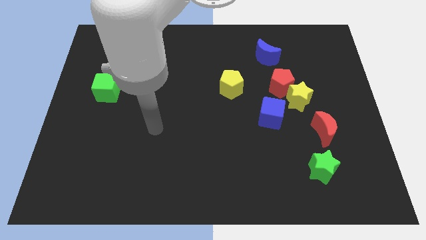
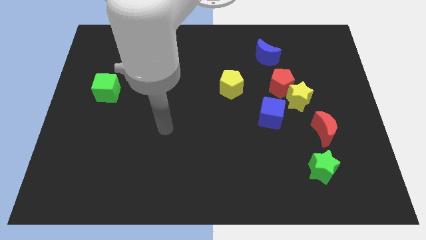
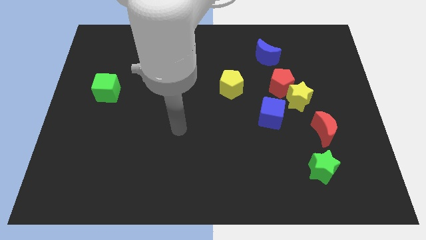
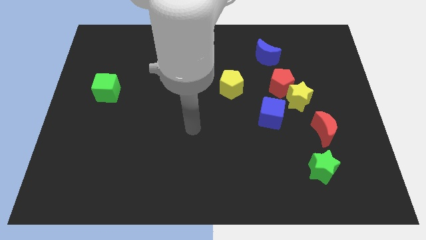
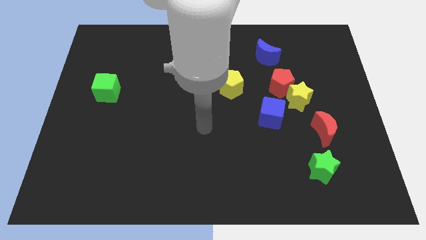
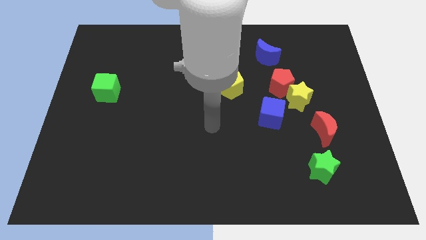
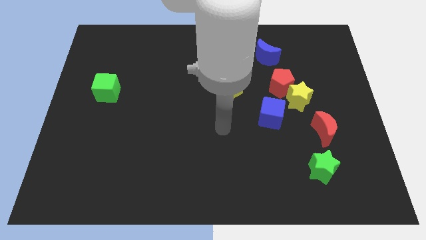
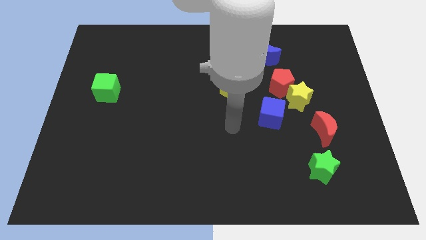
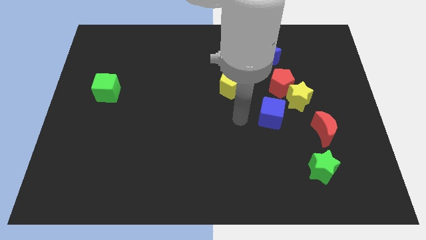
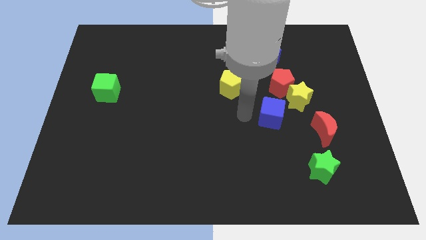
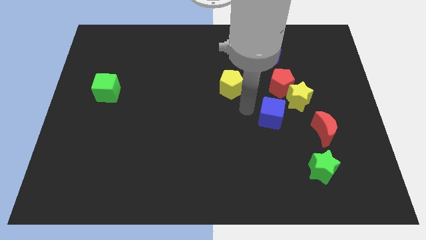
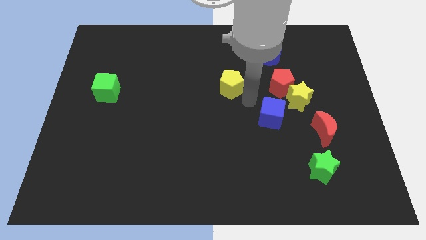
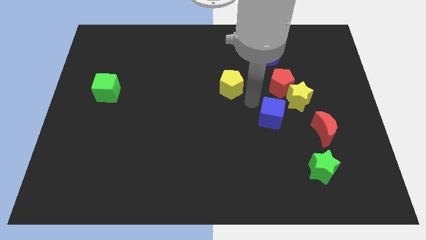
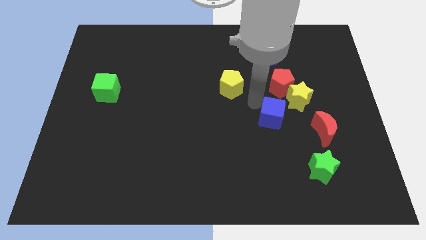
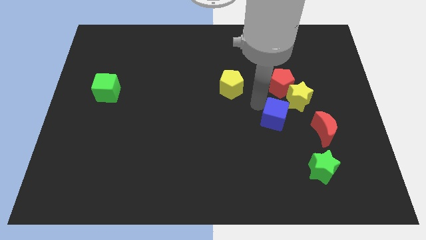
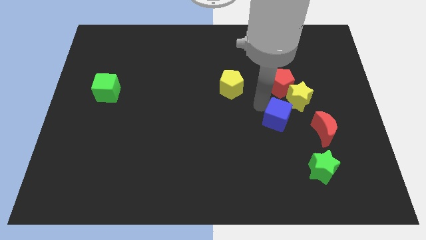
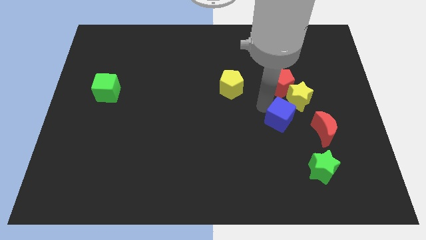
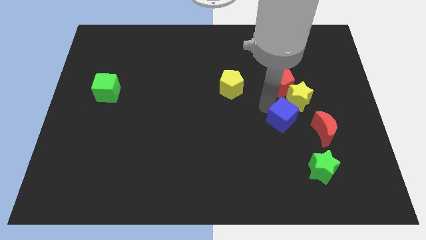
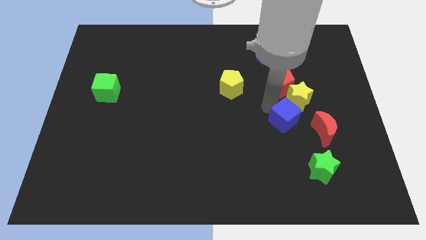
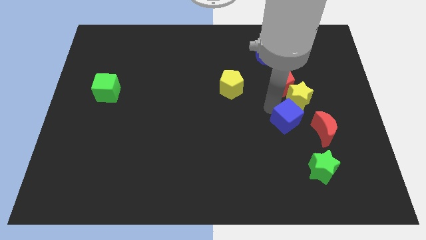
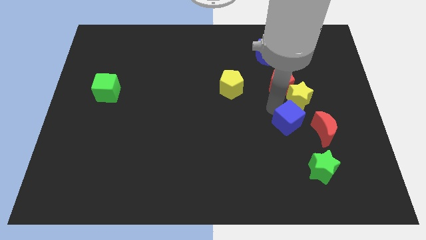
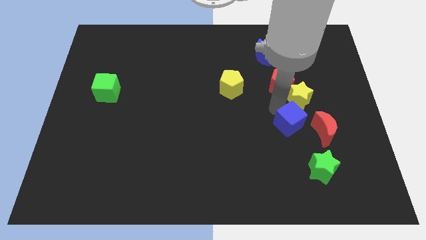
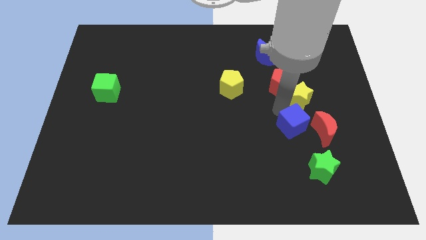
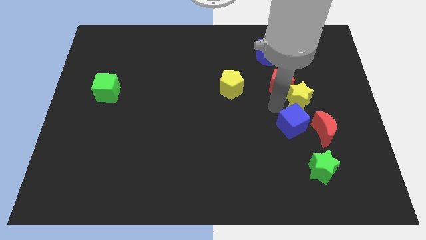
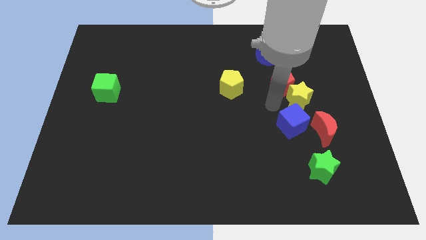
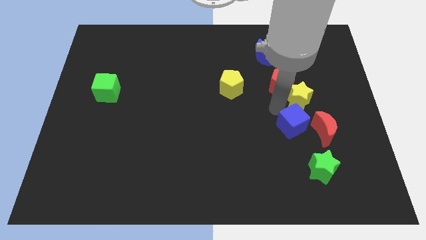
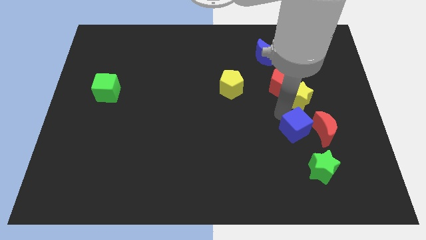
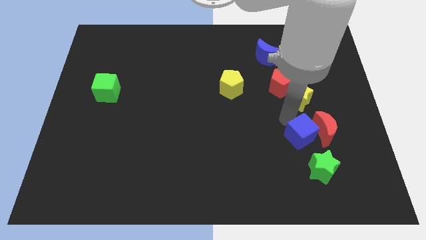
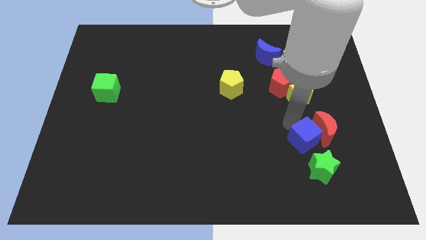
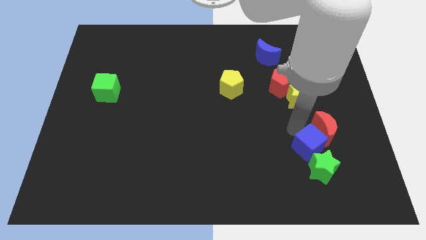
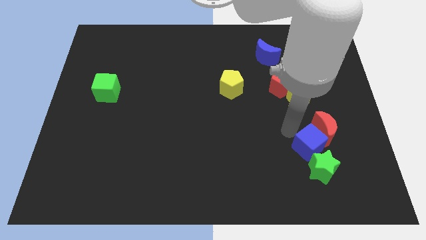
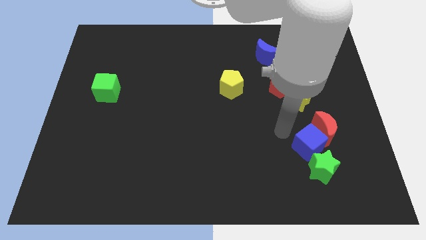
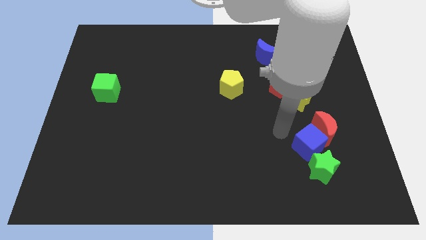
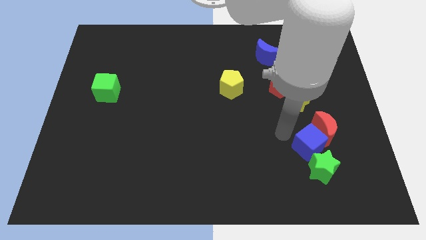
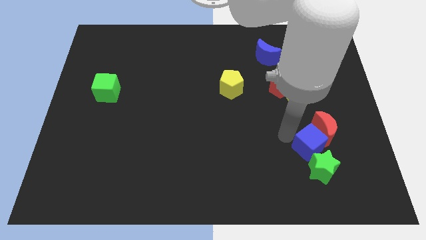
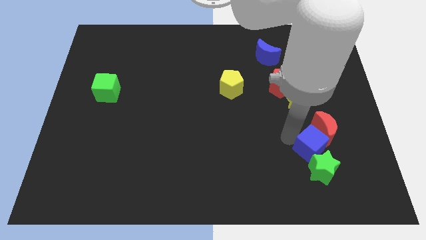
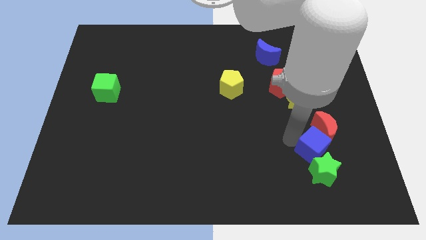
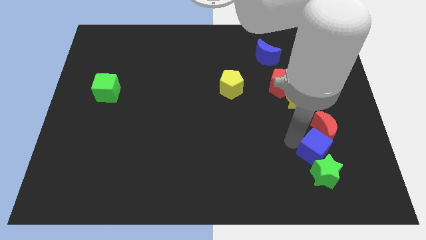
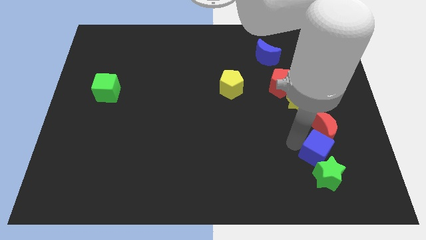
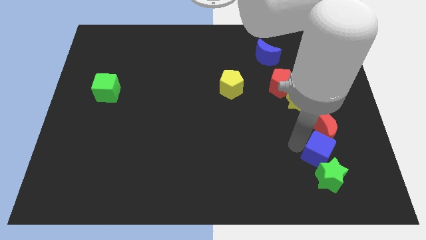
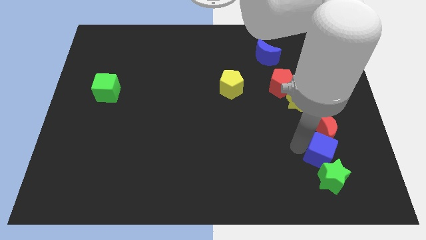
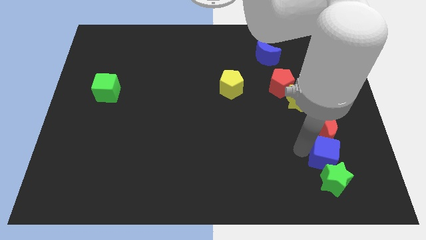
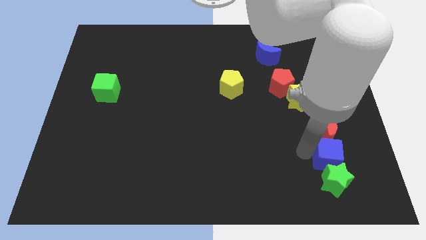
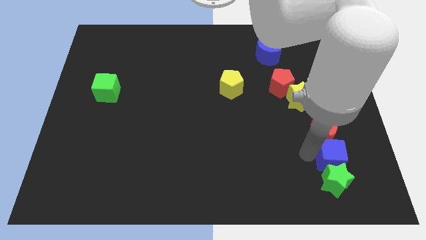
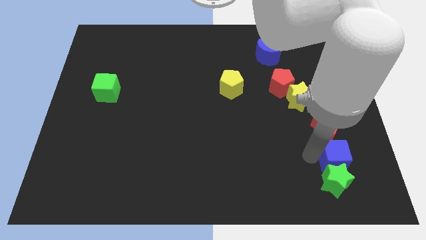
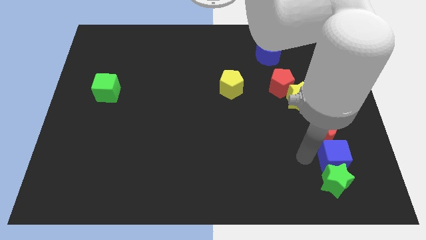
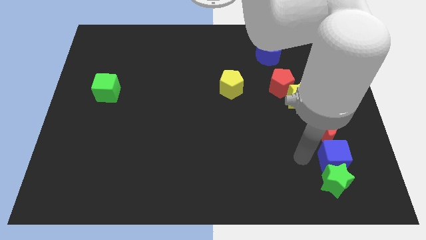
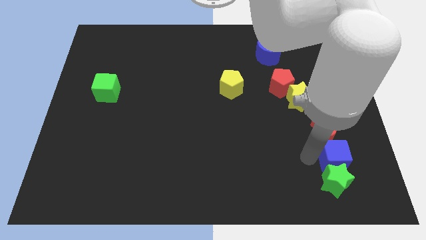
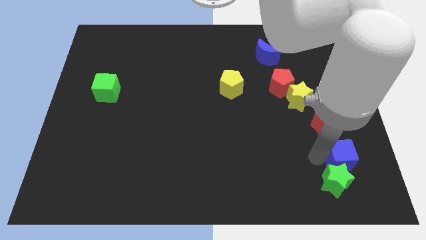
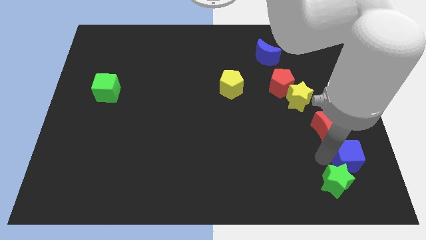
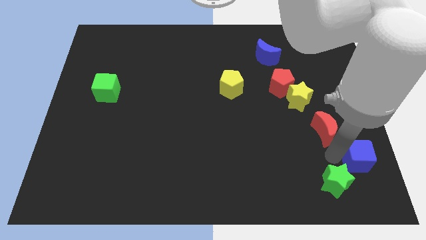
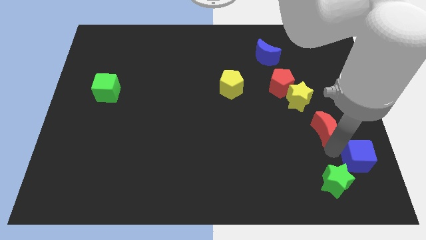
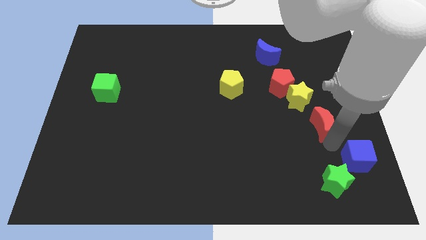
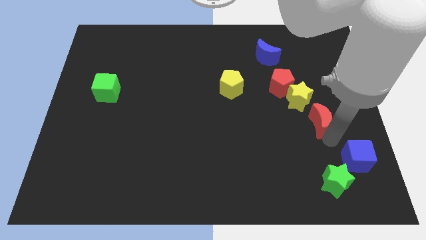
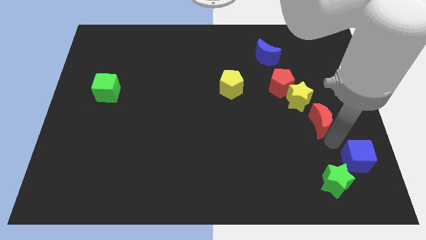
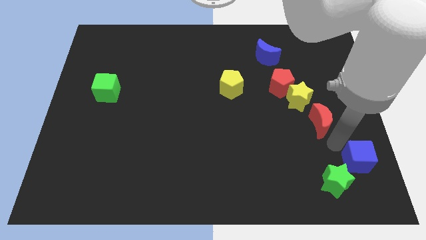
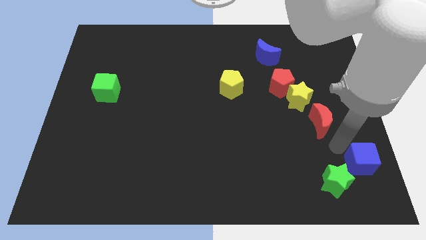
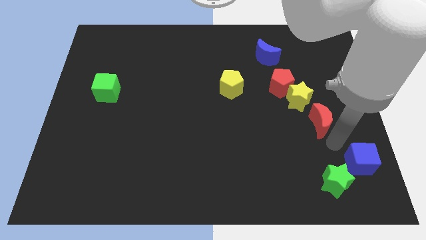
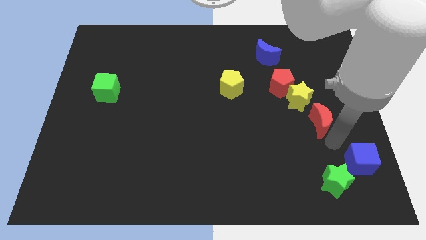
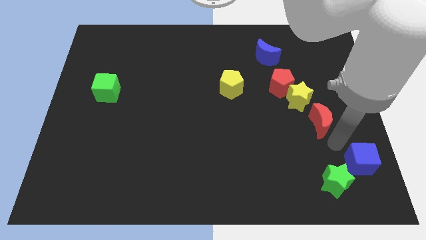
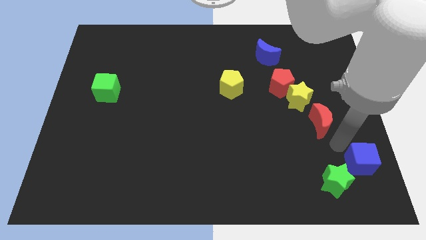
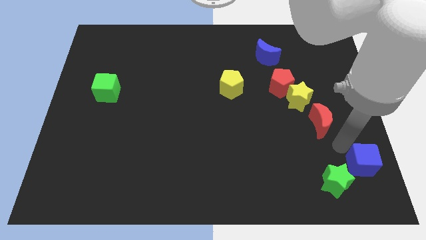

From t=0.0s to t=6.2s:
slide the blue cube to the bottom right corner

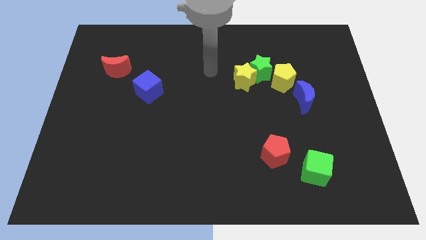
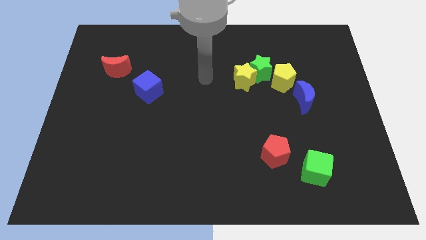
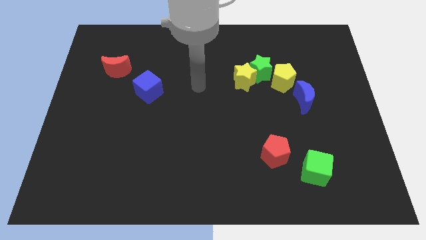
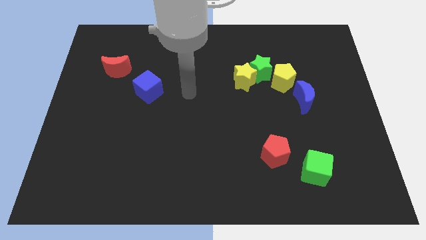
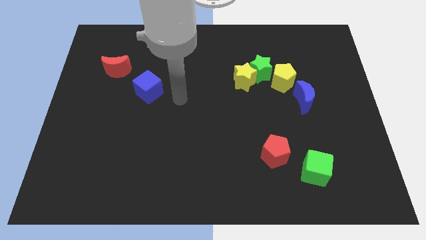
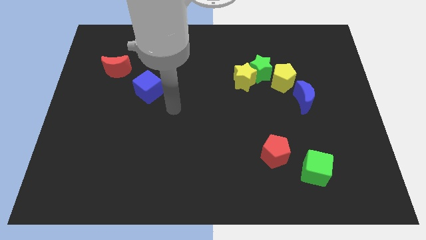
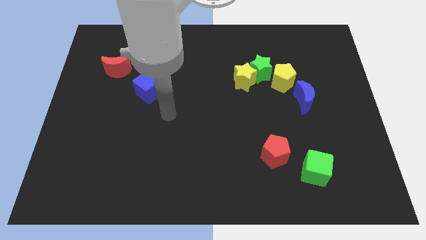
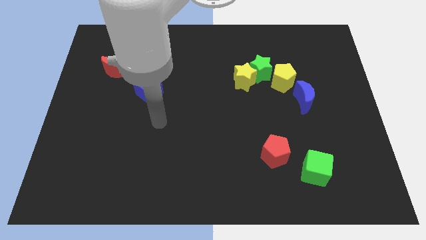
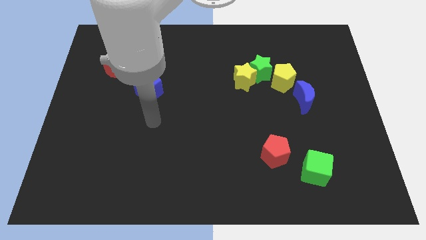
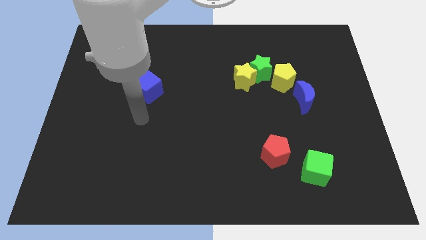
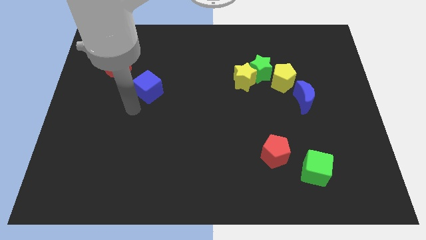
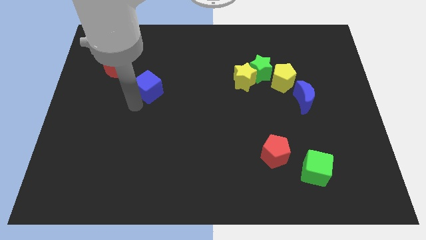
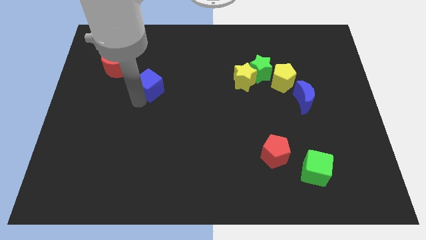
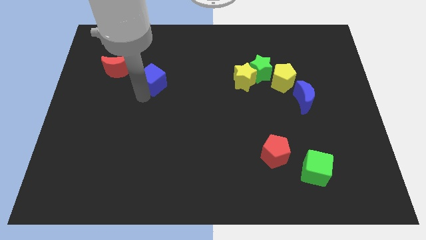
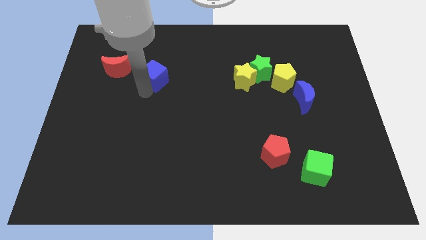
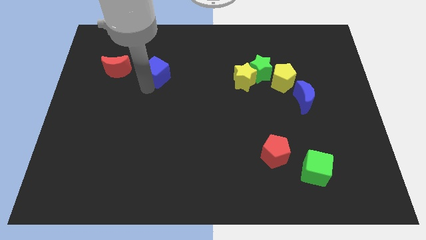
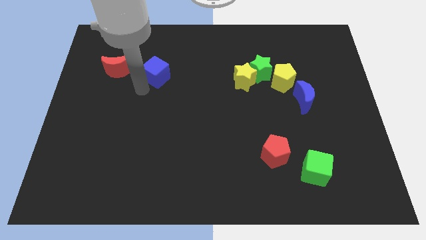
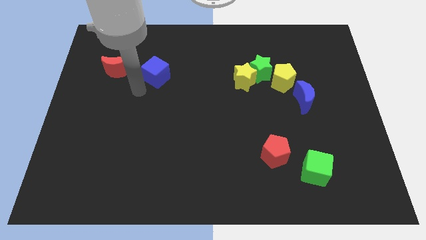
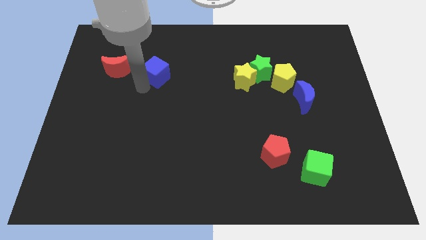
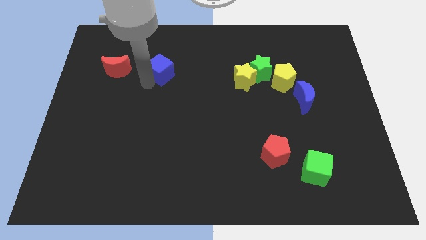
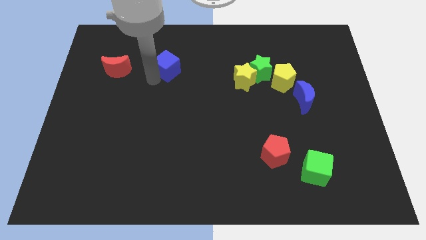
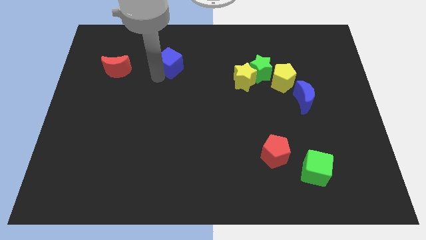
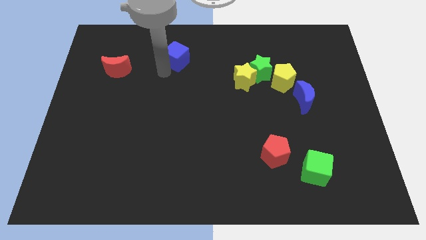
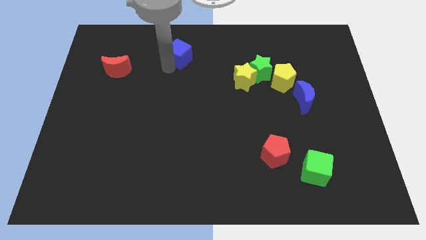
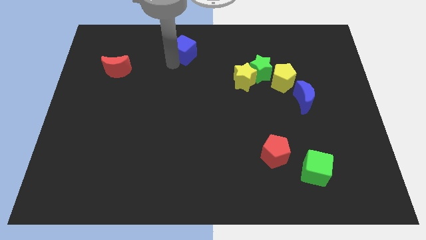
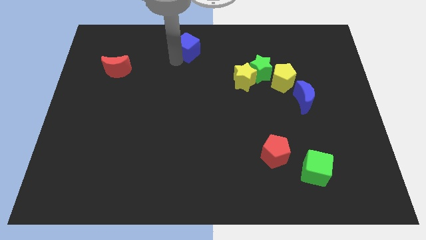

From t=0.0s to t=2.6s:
push the blue cube to the top side
